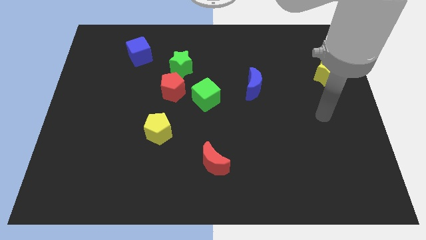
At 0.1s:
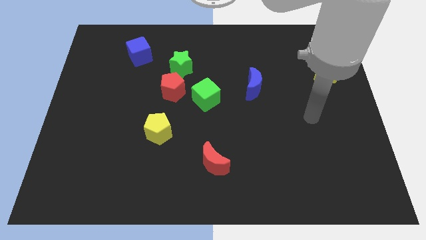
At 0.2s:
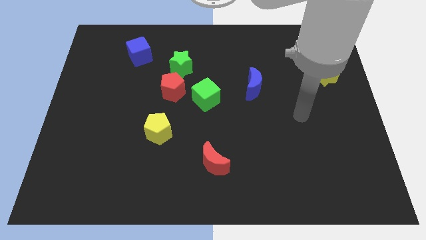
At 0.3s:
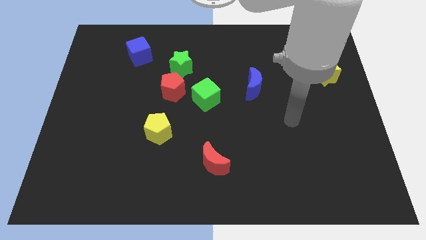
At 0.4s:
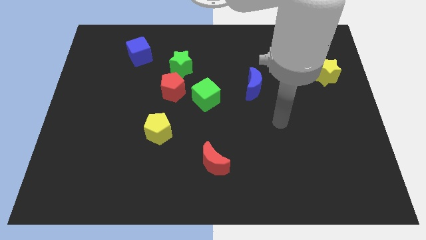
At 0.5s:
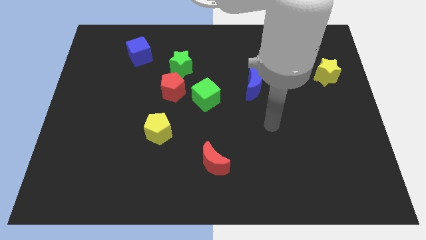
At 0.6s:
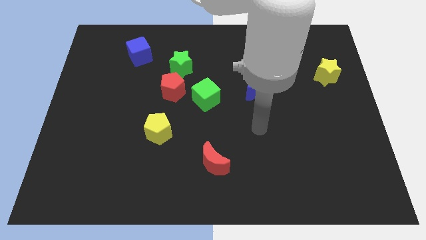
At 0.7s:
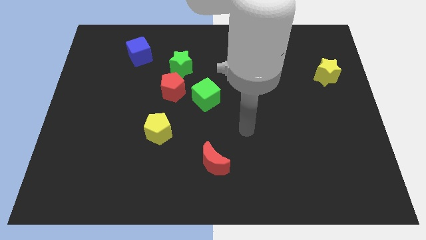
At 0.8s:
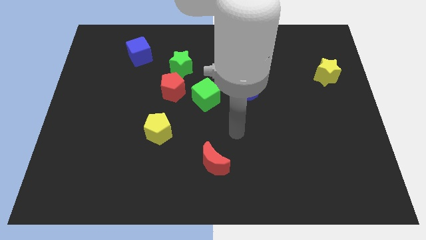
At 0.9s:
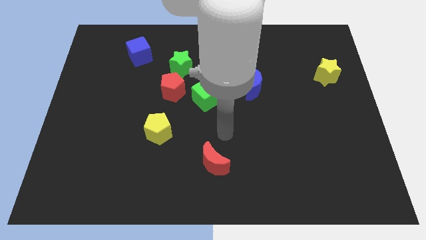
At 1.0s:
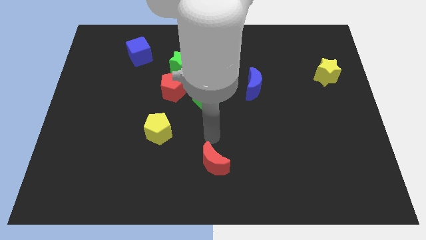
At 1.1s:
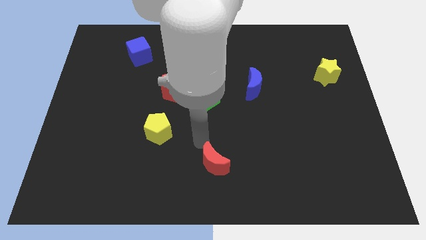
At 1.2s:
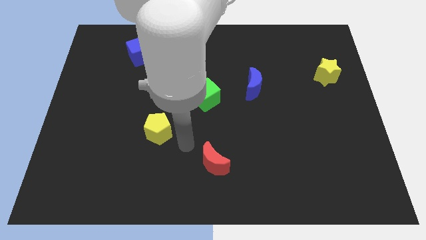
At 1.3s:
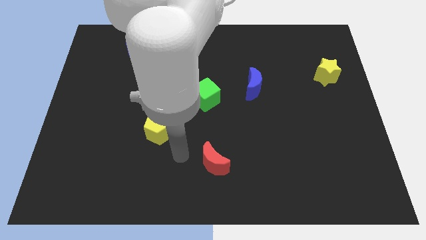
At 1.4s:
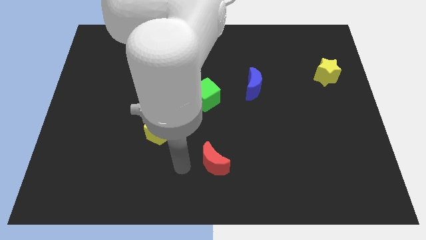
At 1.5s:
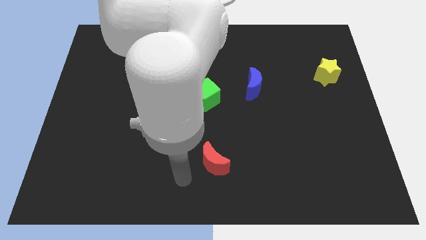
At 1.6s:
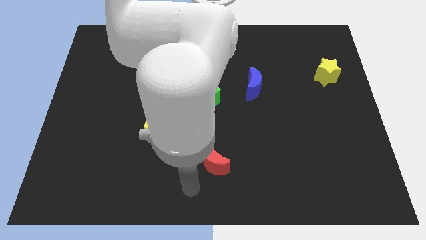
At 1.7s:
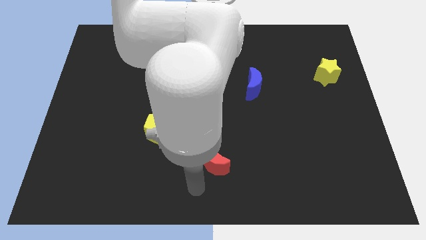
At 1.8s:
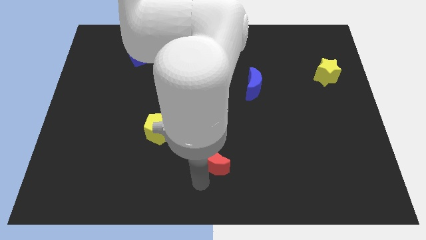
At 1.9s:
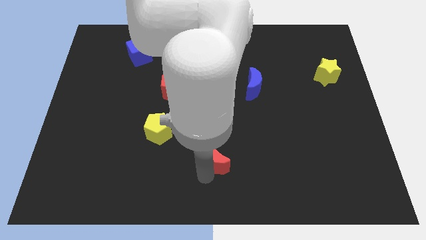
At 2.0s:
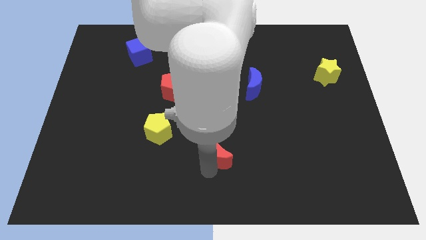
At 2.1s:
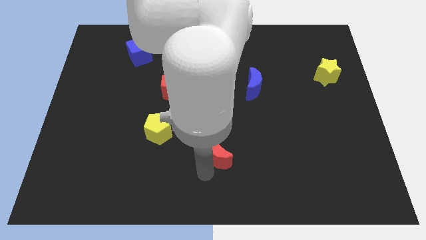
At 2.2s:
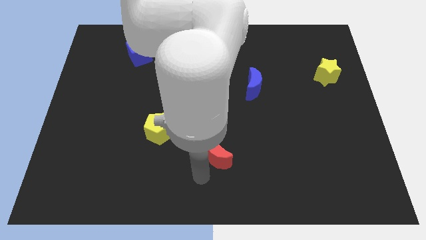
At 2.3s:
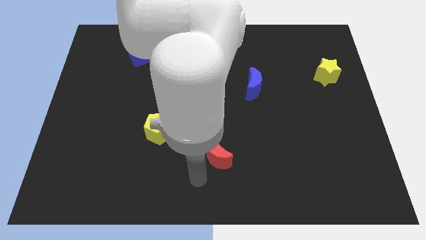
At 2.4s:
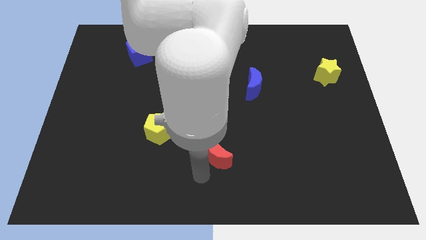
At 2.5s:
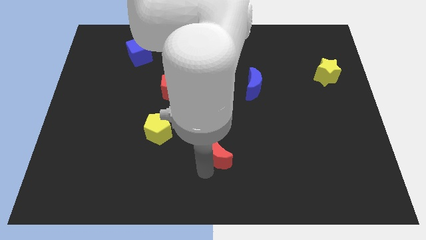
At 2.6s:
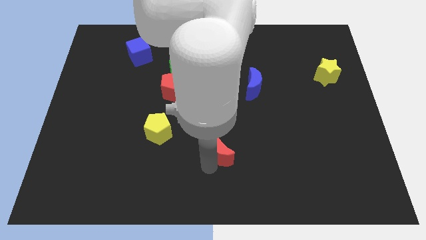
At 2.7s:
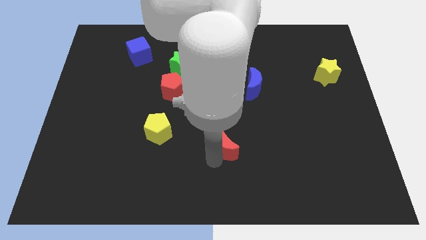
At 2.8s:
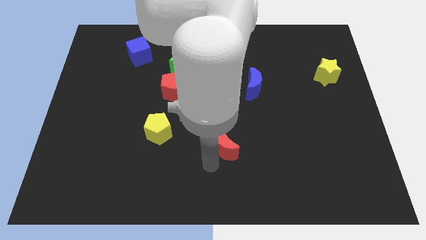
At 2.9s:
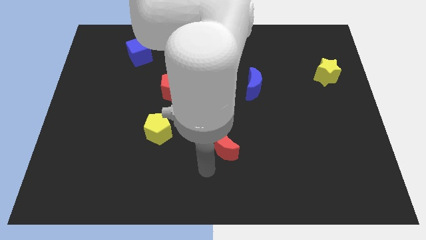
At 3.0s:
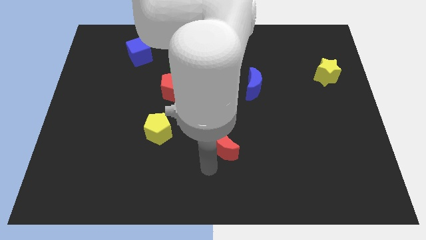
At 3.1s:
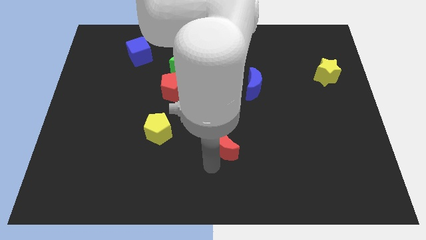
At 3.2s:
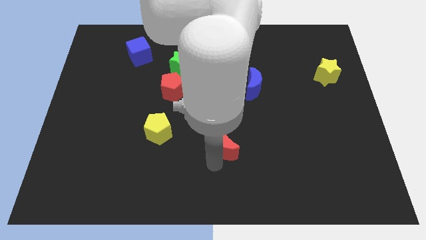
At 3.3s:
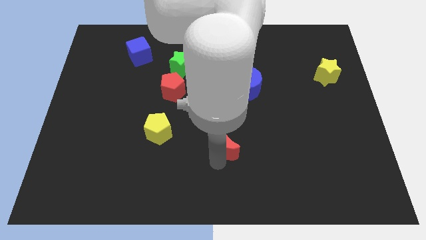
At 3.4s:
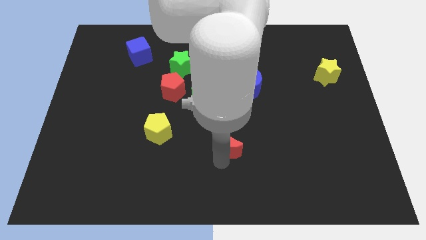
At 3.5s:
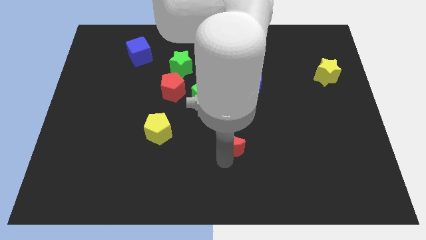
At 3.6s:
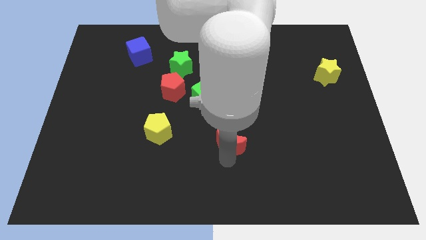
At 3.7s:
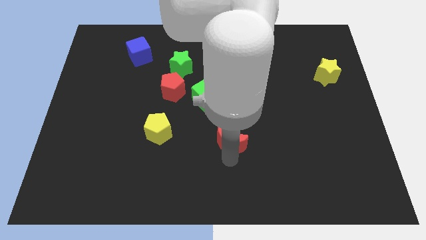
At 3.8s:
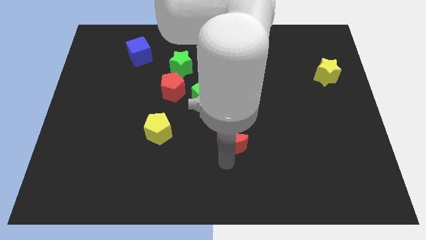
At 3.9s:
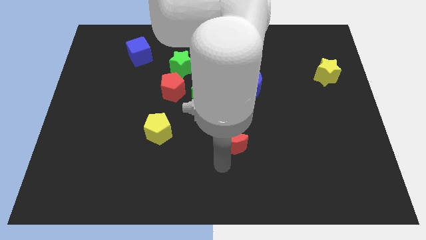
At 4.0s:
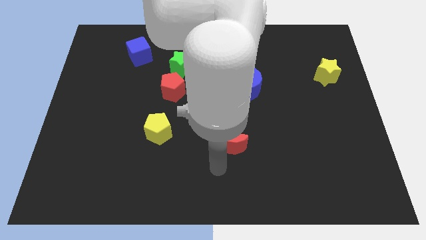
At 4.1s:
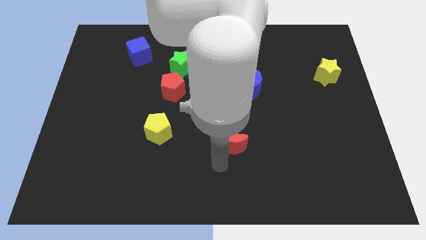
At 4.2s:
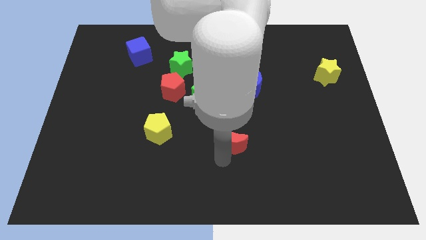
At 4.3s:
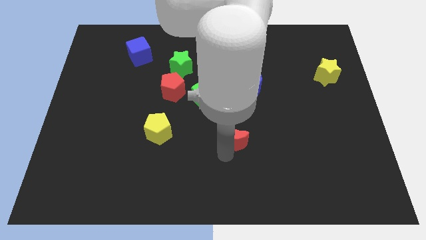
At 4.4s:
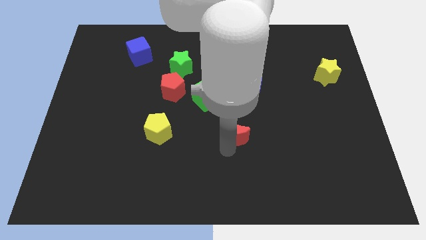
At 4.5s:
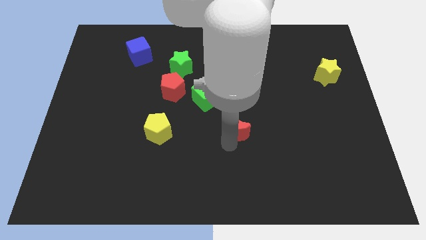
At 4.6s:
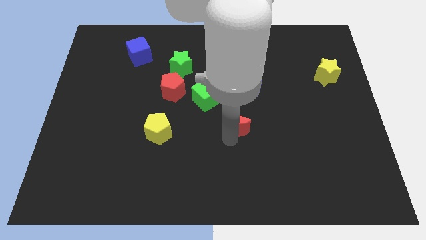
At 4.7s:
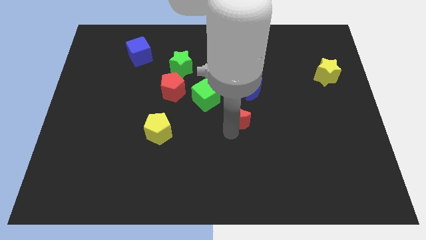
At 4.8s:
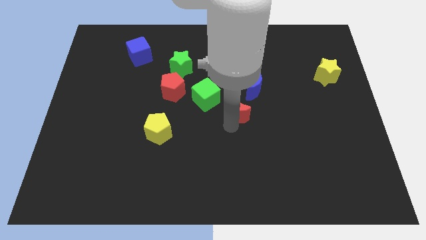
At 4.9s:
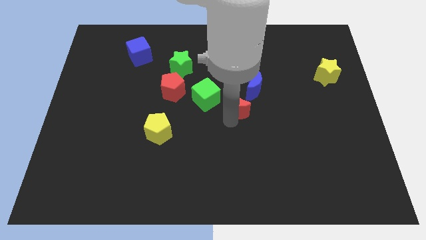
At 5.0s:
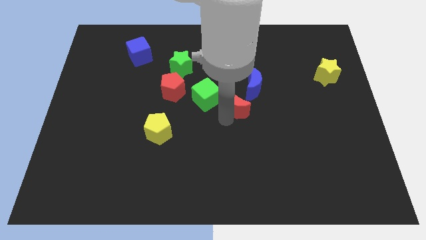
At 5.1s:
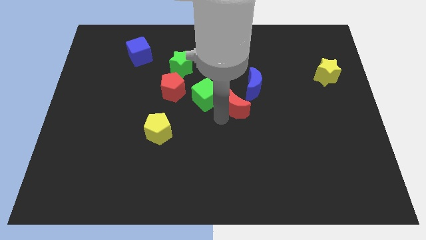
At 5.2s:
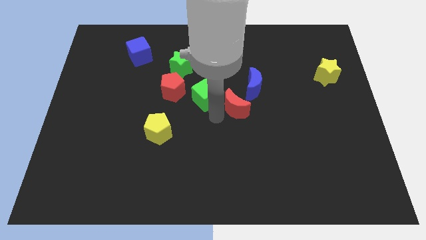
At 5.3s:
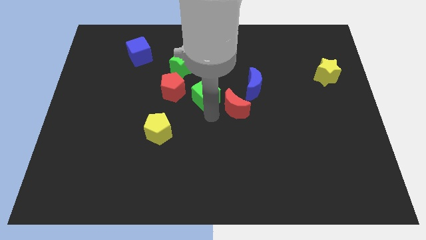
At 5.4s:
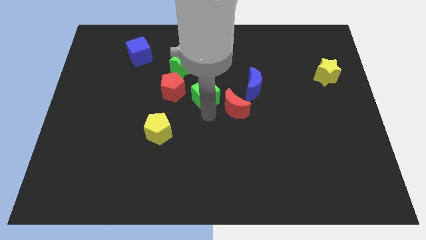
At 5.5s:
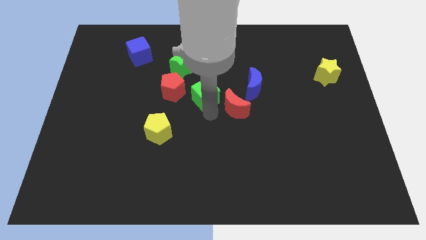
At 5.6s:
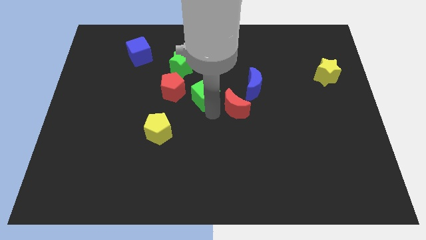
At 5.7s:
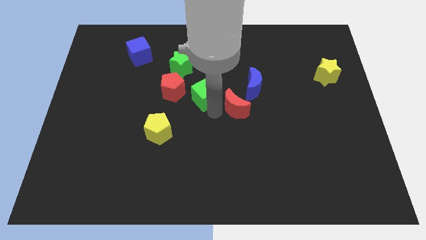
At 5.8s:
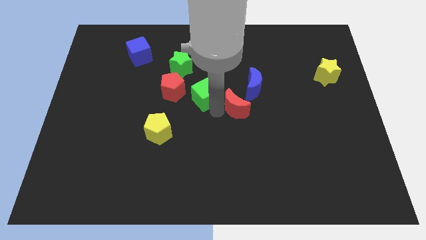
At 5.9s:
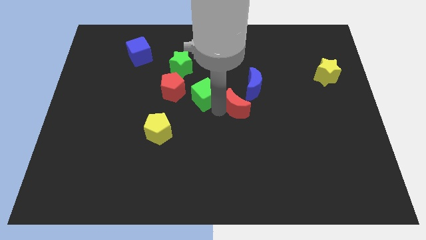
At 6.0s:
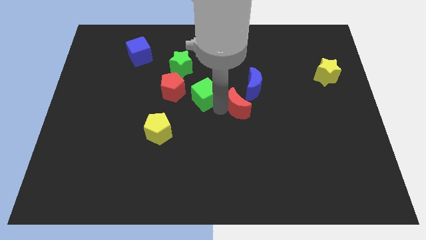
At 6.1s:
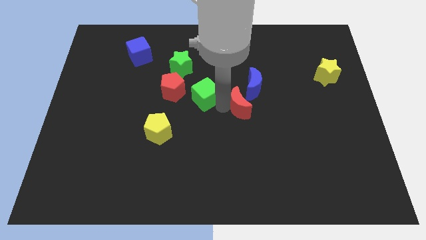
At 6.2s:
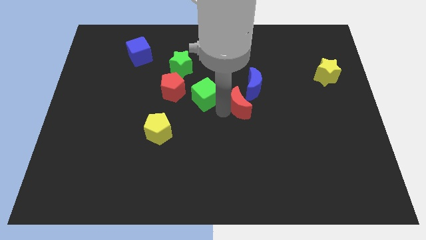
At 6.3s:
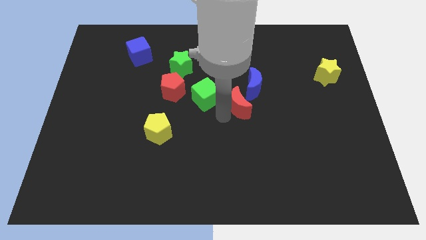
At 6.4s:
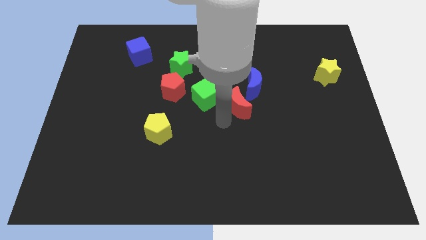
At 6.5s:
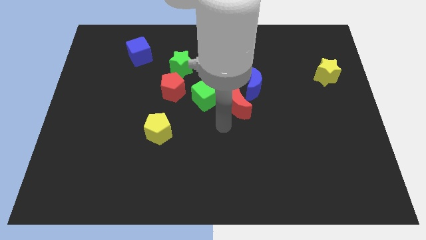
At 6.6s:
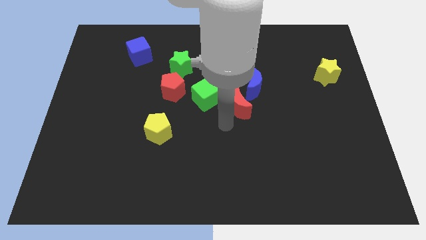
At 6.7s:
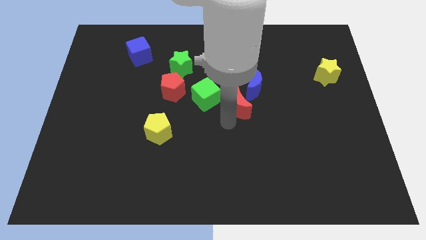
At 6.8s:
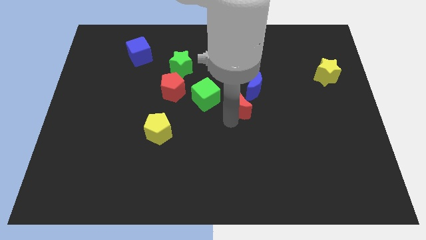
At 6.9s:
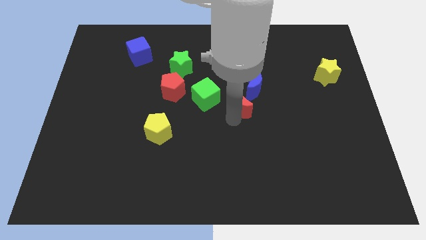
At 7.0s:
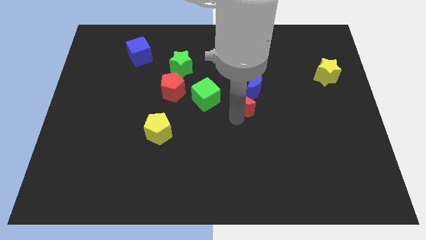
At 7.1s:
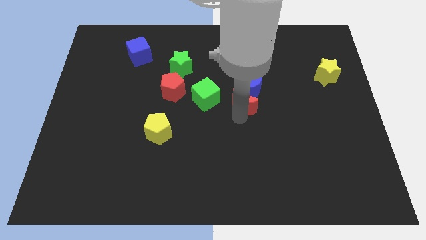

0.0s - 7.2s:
push the red moon towards the blue moon
